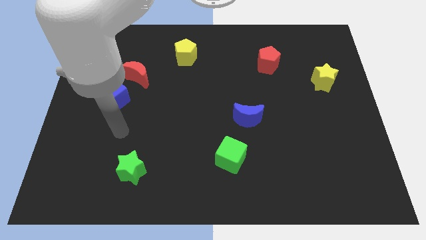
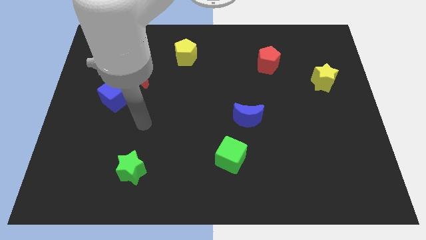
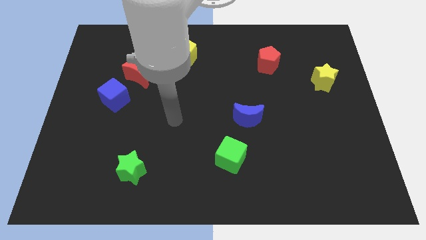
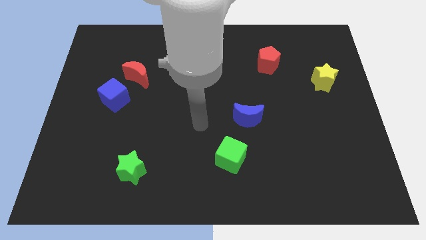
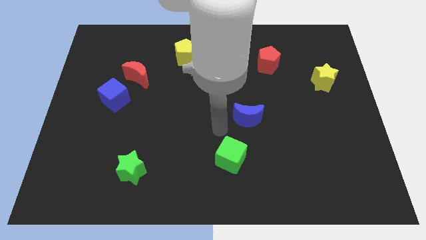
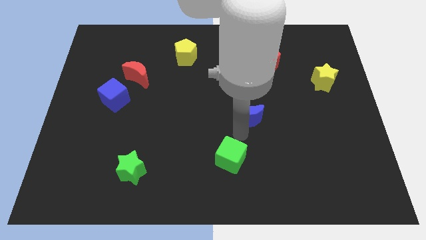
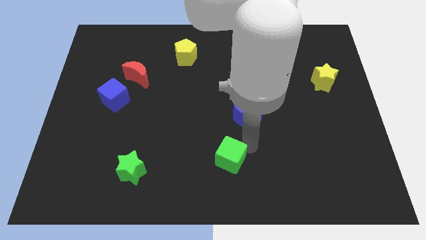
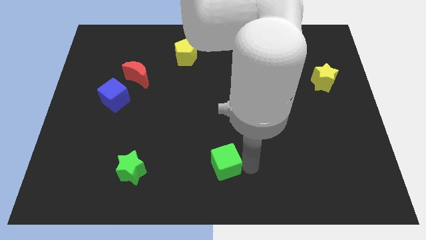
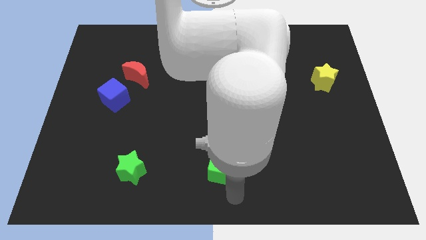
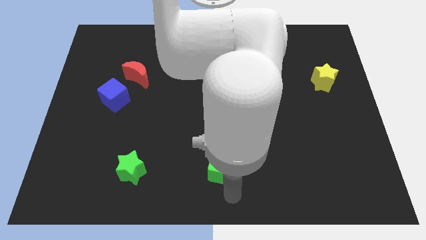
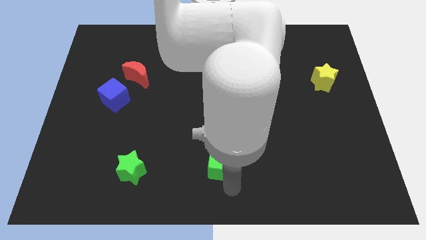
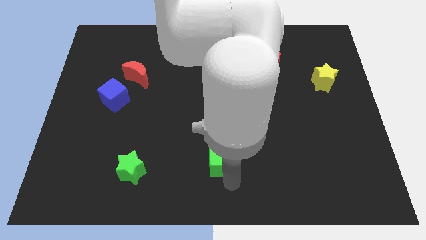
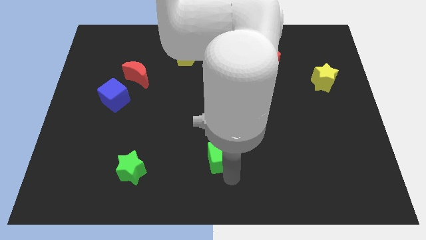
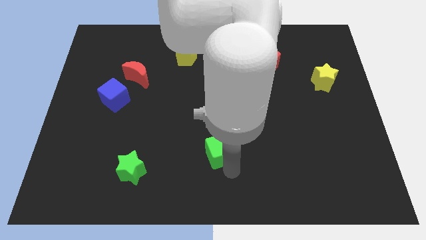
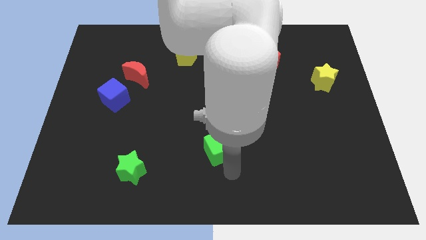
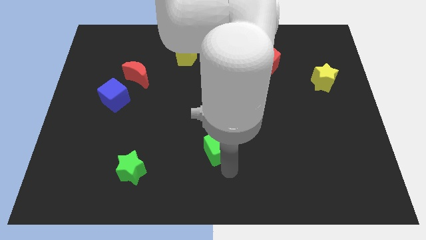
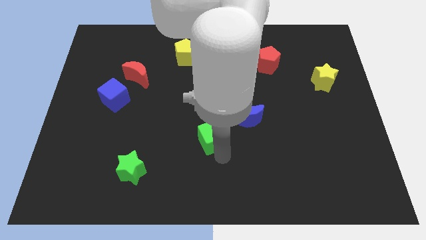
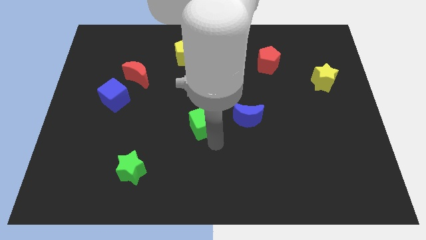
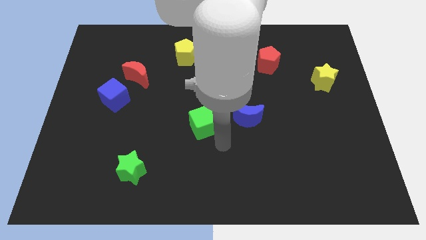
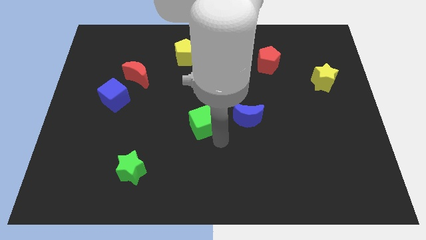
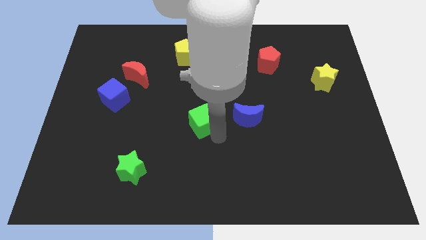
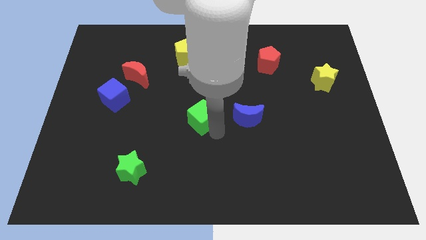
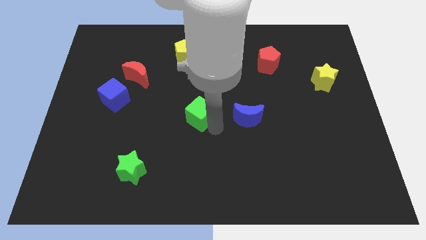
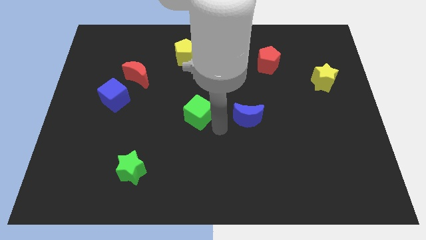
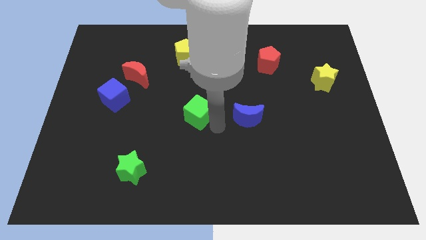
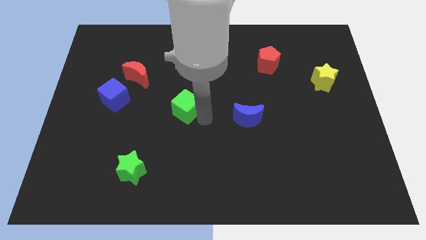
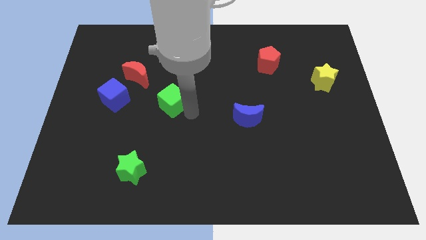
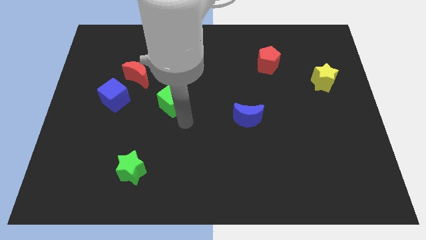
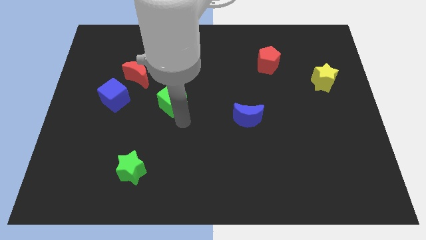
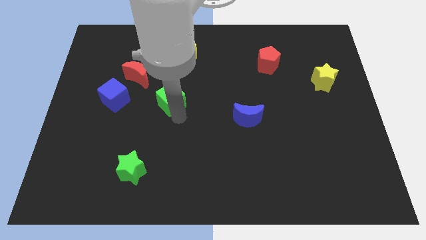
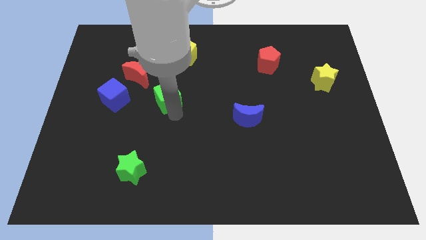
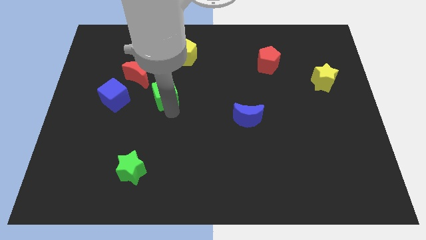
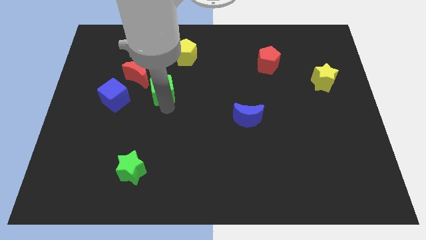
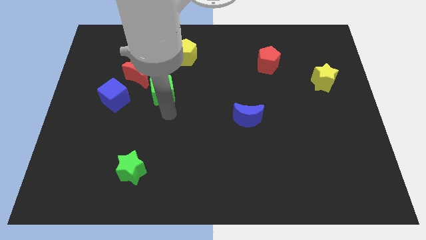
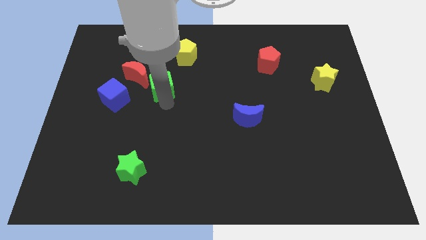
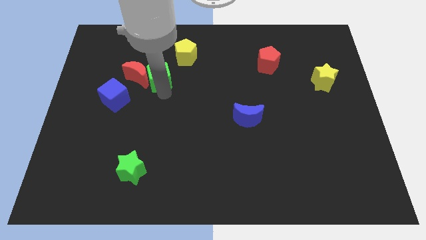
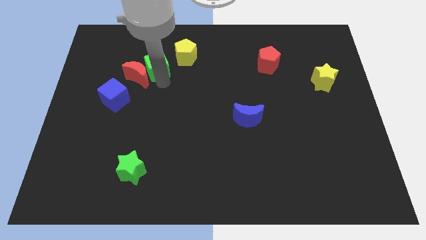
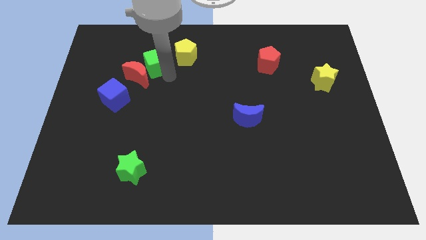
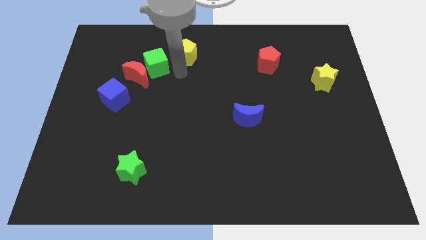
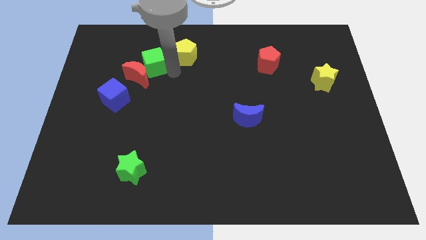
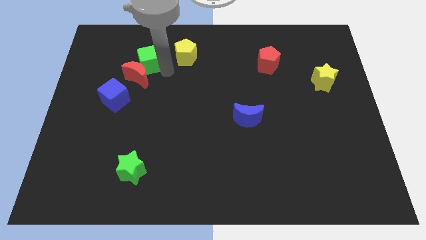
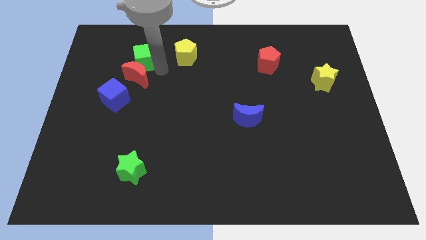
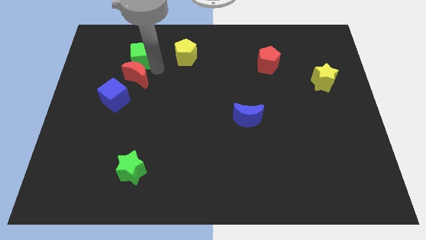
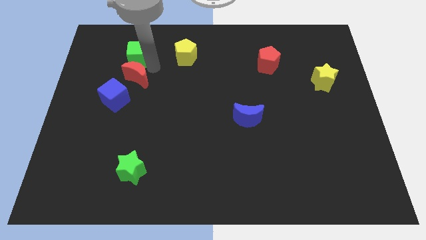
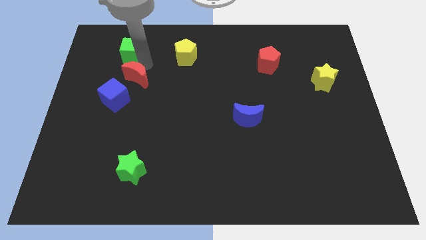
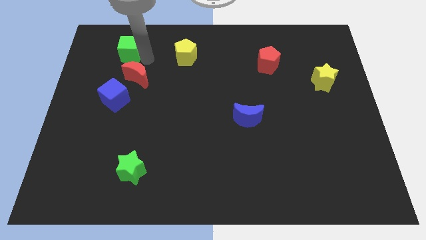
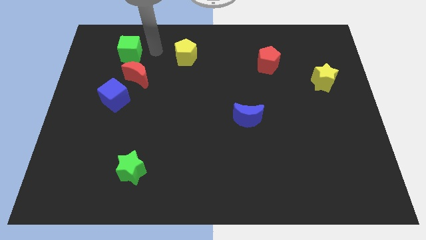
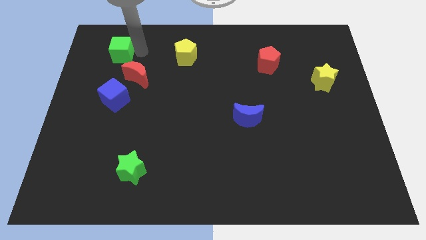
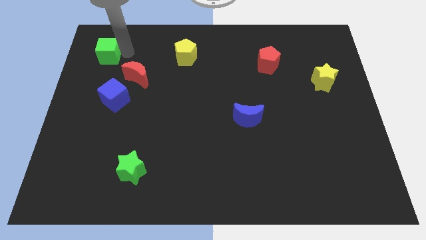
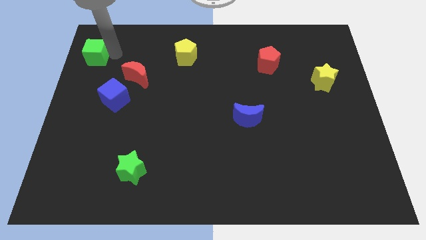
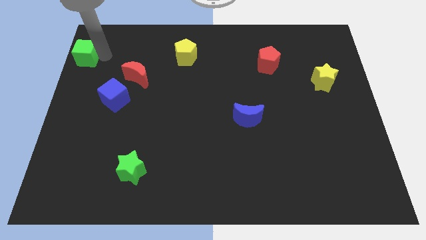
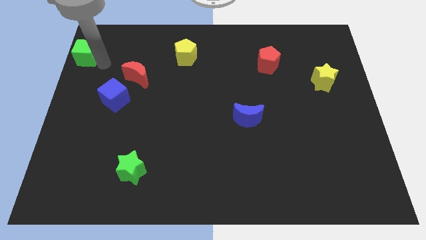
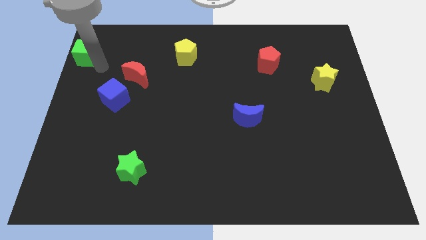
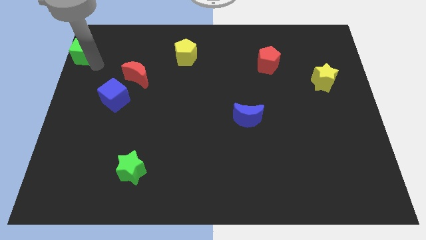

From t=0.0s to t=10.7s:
push the green cube to the upper left corner

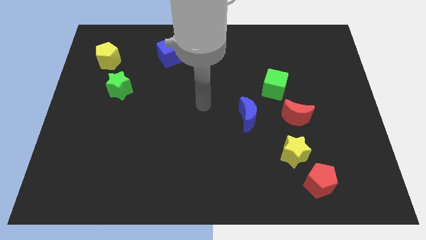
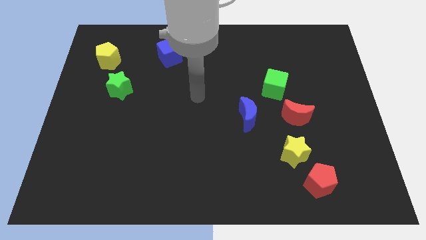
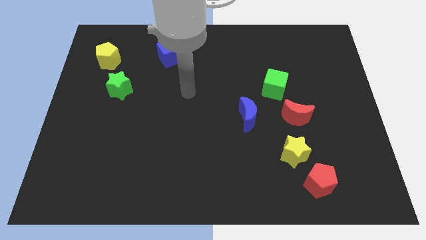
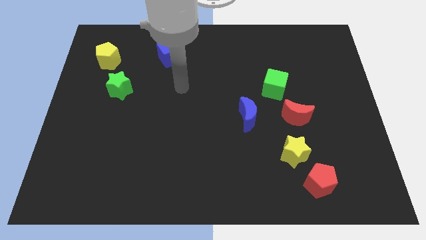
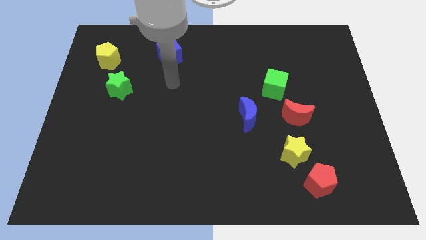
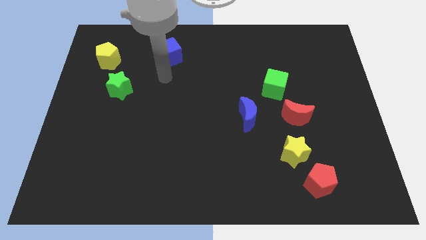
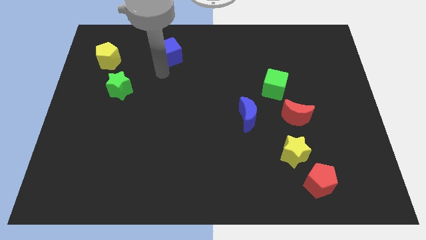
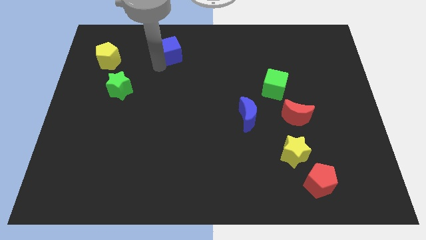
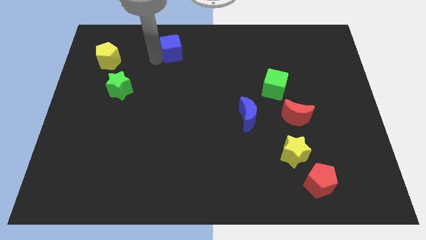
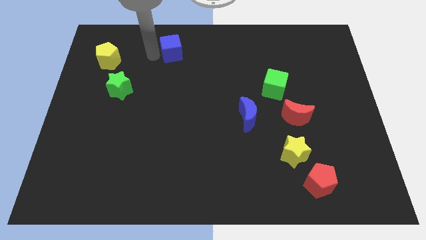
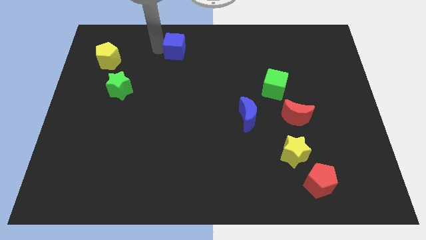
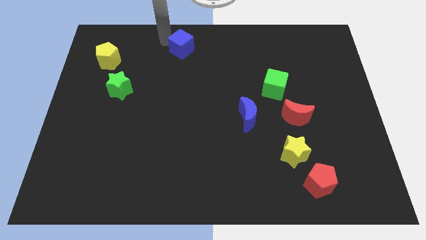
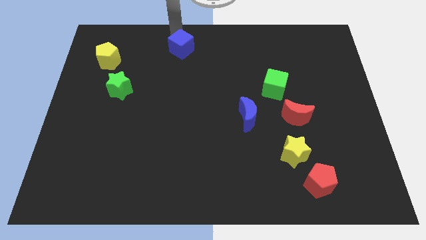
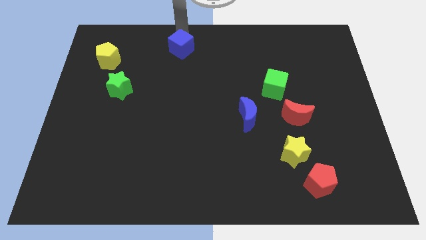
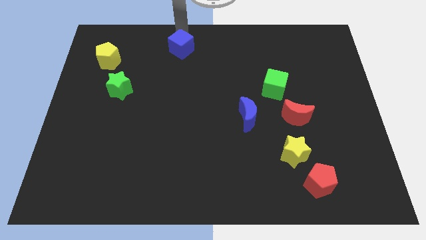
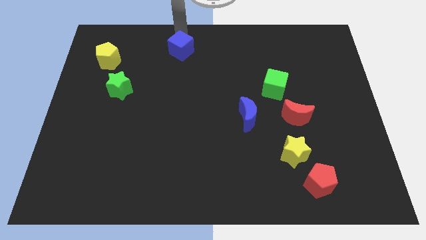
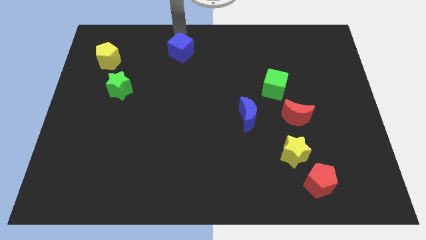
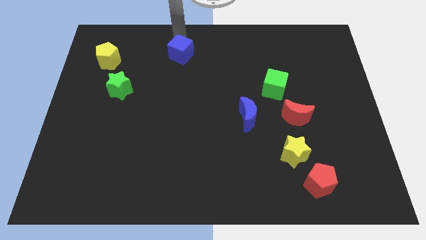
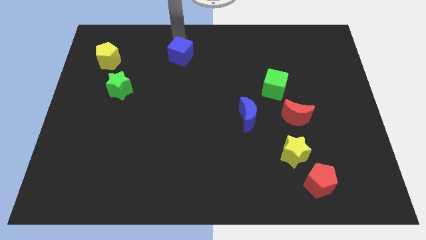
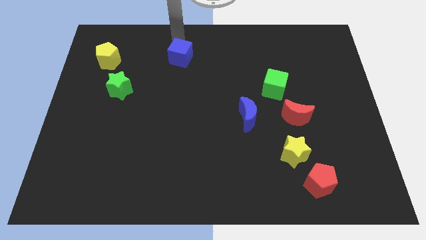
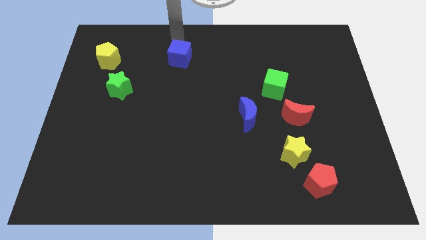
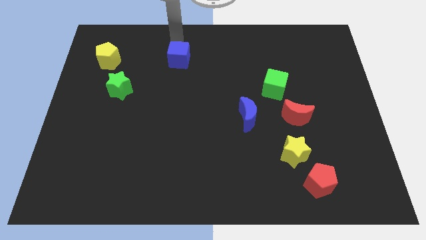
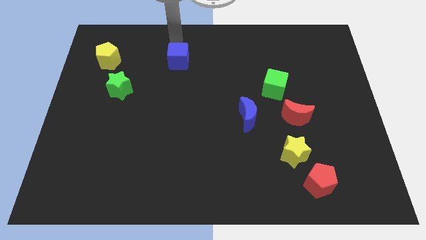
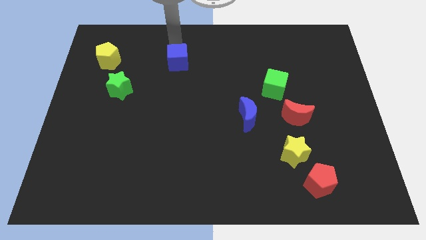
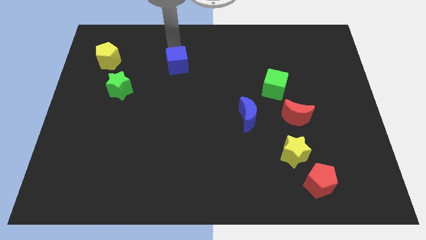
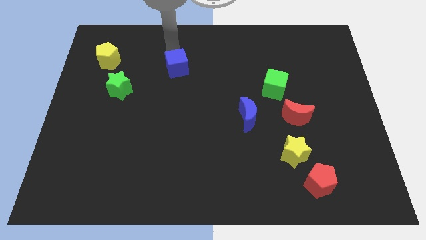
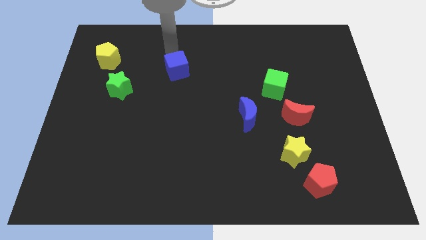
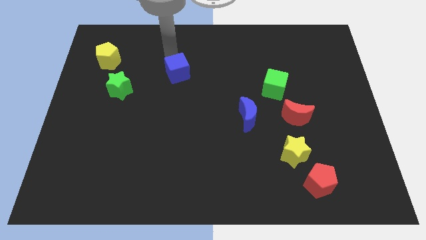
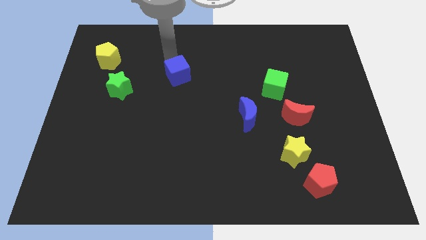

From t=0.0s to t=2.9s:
put the blue cube to the center
